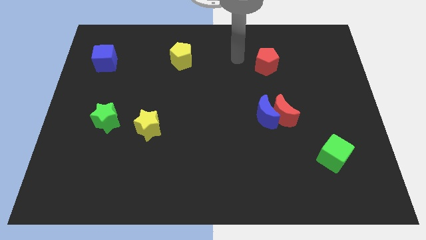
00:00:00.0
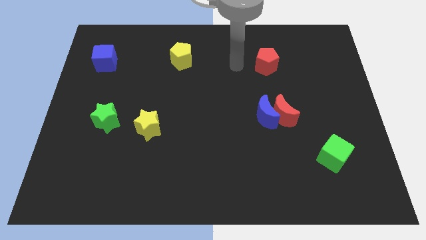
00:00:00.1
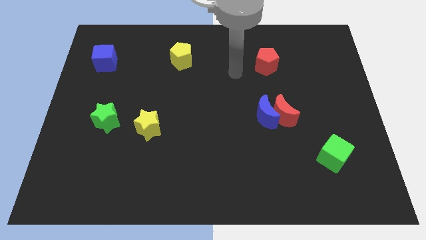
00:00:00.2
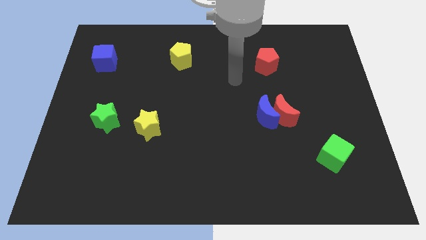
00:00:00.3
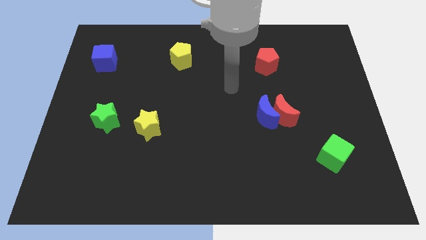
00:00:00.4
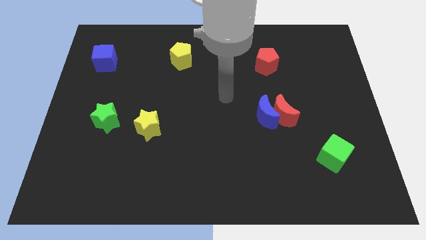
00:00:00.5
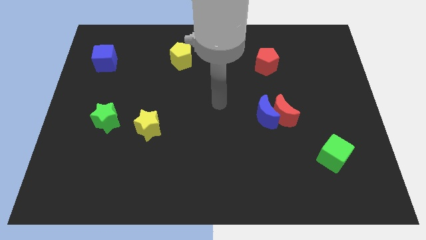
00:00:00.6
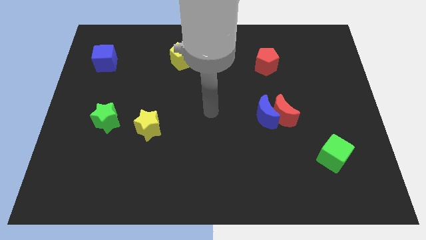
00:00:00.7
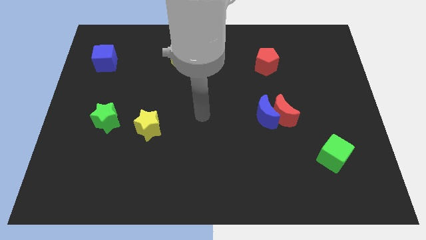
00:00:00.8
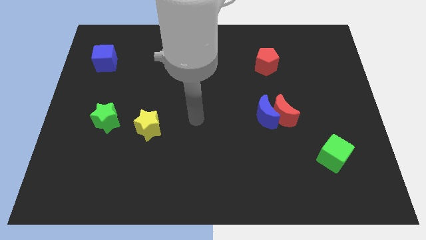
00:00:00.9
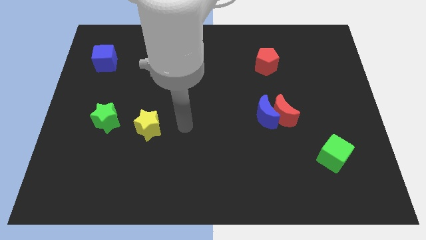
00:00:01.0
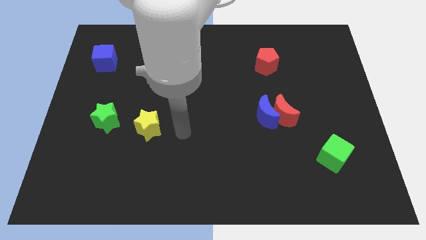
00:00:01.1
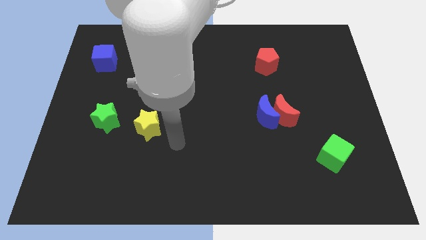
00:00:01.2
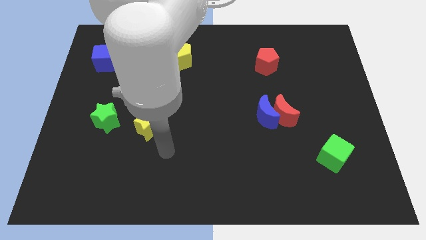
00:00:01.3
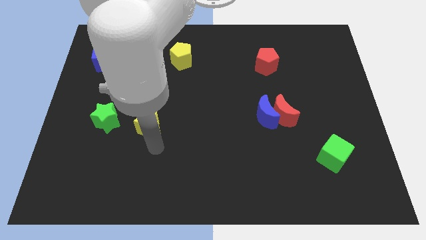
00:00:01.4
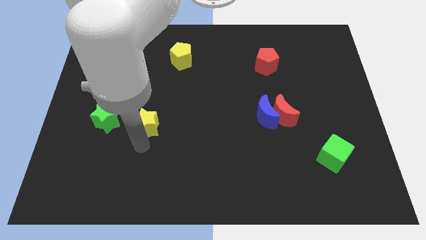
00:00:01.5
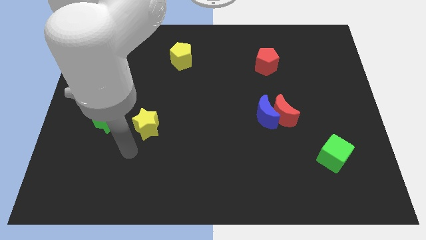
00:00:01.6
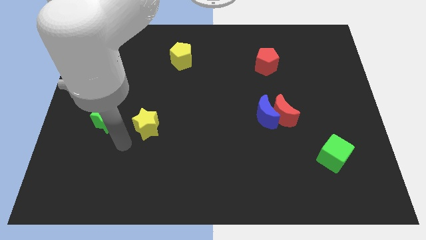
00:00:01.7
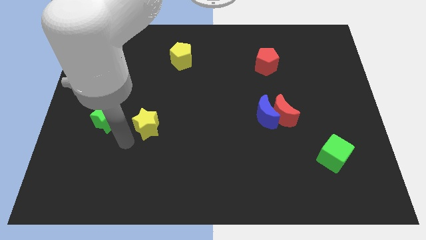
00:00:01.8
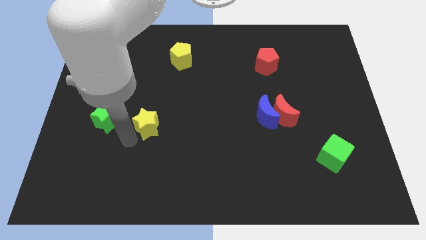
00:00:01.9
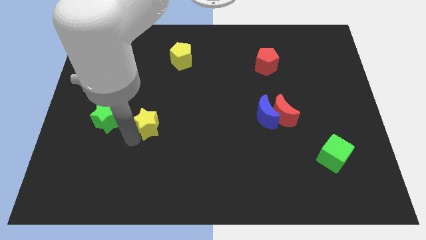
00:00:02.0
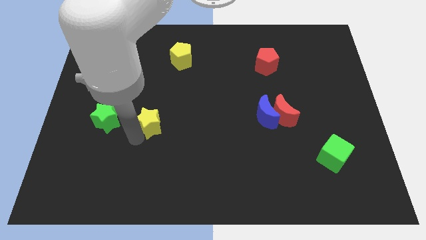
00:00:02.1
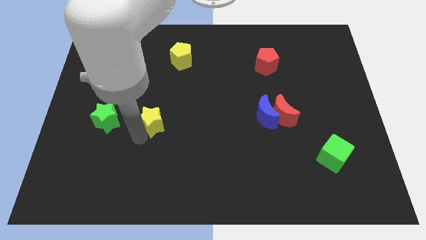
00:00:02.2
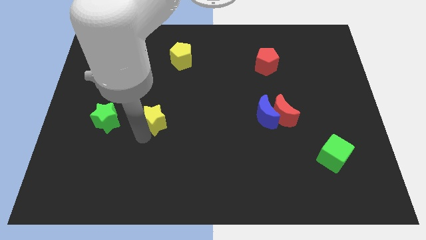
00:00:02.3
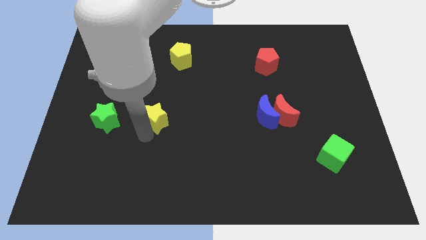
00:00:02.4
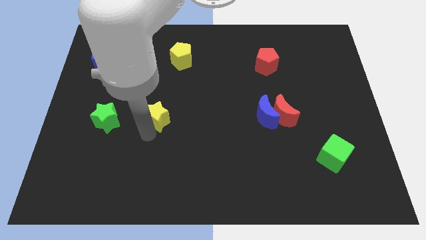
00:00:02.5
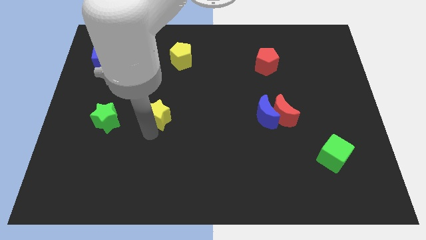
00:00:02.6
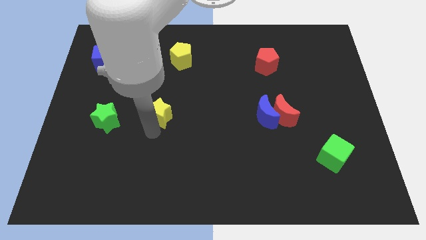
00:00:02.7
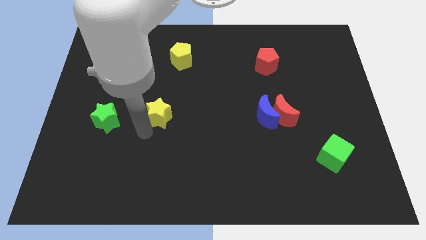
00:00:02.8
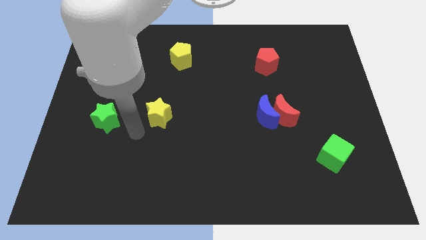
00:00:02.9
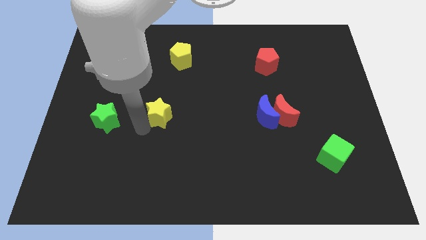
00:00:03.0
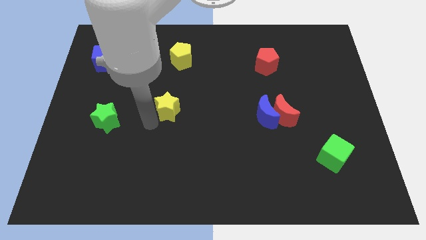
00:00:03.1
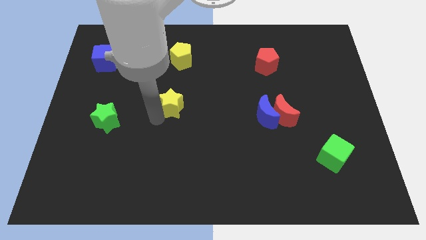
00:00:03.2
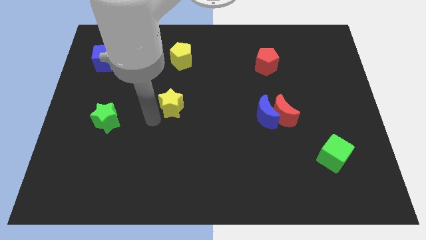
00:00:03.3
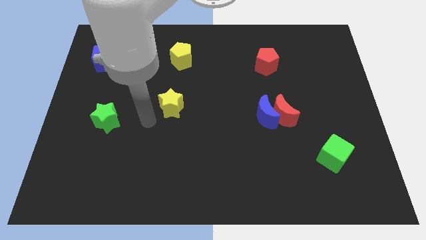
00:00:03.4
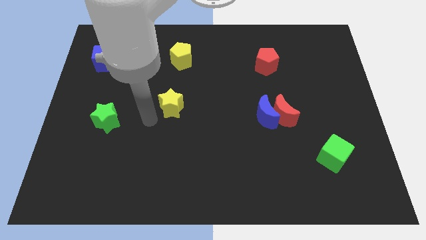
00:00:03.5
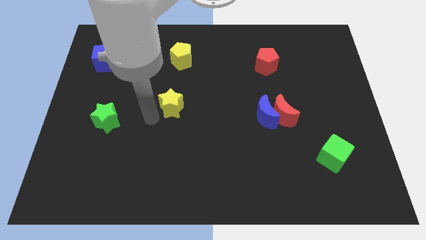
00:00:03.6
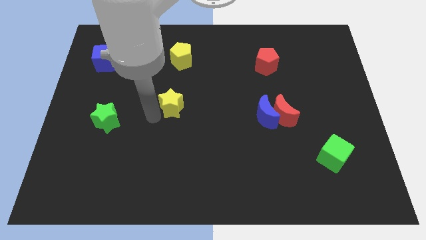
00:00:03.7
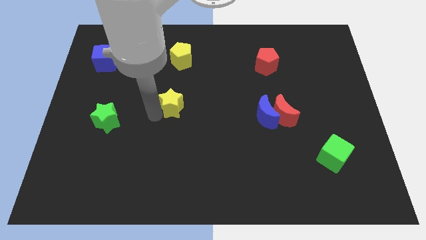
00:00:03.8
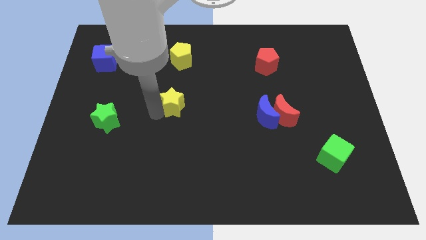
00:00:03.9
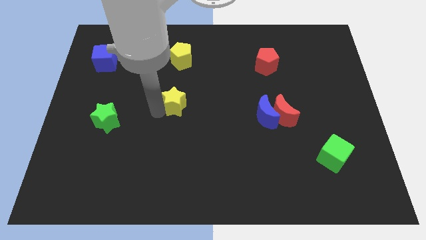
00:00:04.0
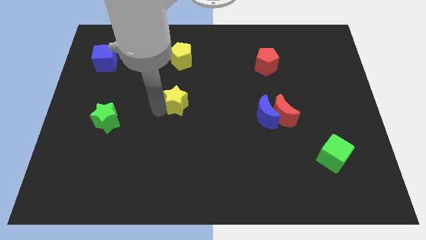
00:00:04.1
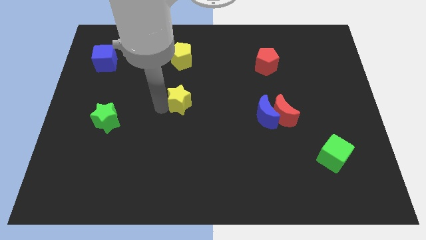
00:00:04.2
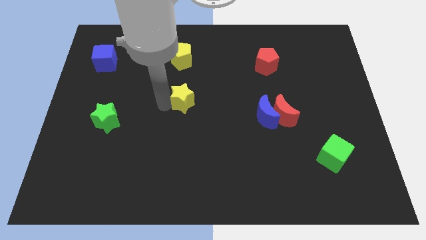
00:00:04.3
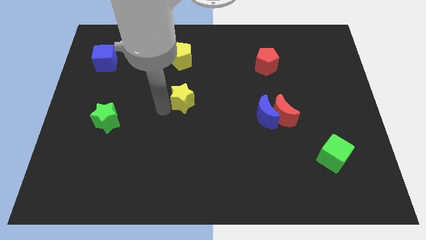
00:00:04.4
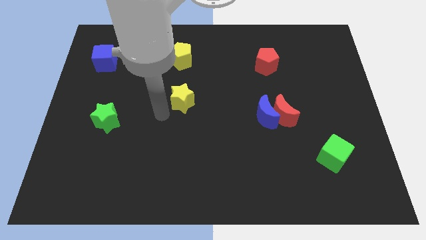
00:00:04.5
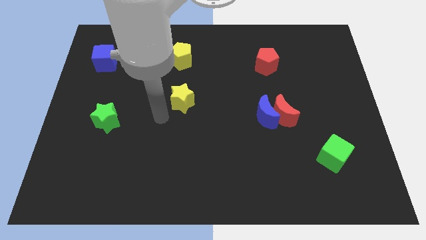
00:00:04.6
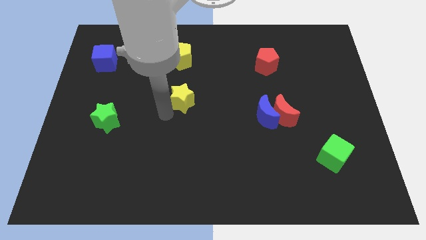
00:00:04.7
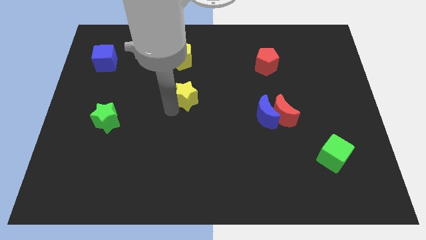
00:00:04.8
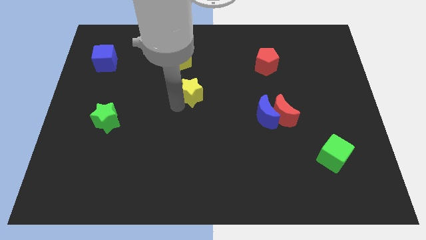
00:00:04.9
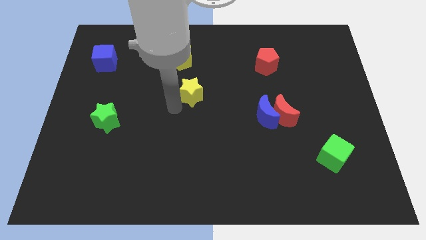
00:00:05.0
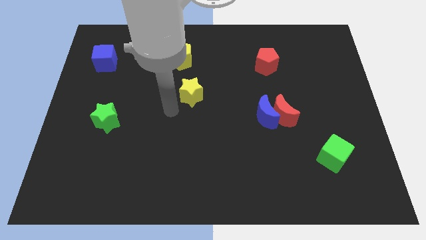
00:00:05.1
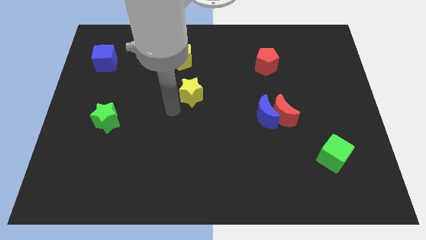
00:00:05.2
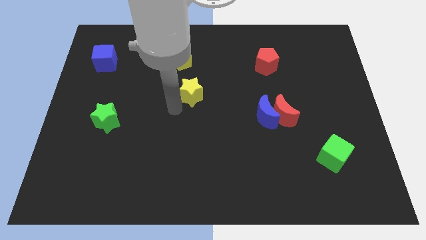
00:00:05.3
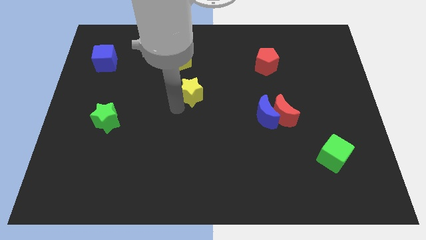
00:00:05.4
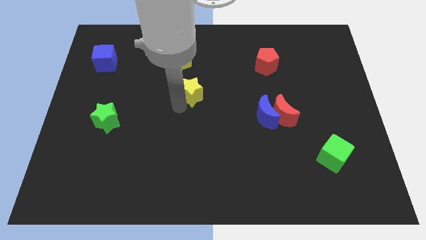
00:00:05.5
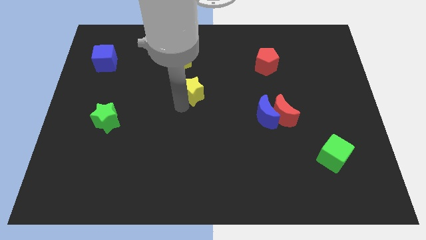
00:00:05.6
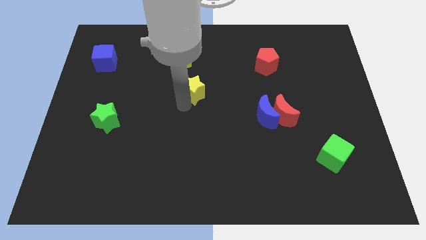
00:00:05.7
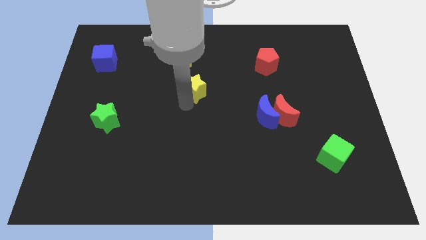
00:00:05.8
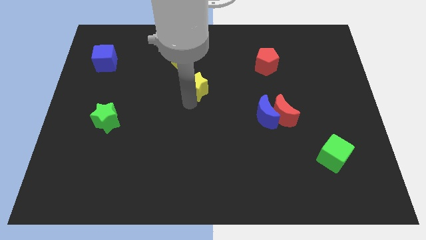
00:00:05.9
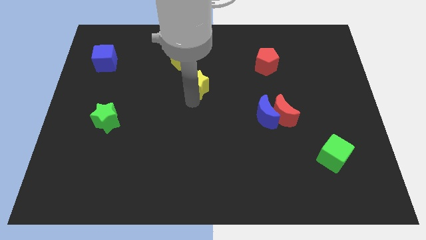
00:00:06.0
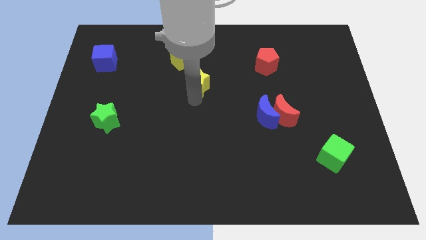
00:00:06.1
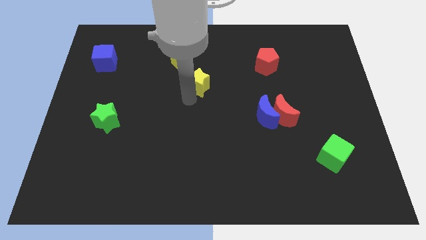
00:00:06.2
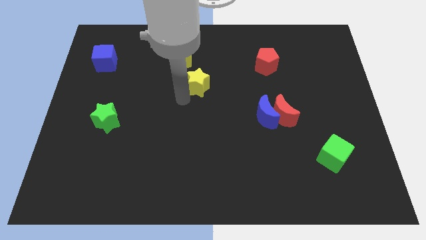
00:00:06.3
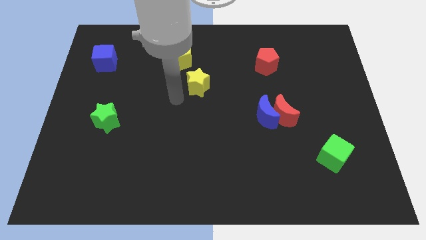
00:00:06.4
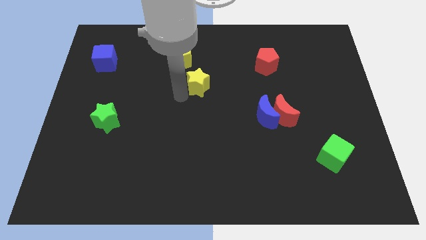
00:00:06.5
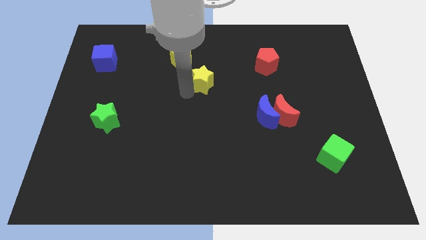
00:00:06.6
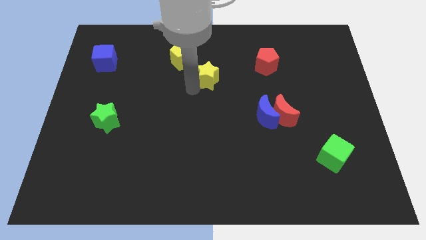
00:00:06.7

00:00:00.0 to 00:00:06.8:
move the yellow star up and then right

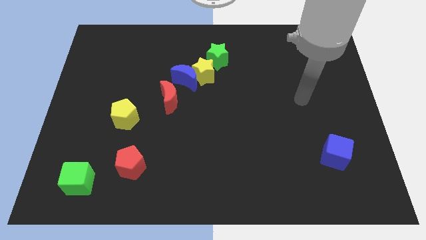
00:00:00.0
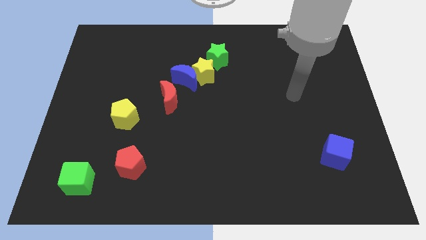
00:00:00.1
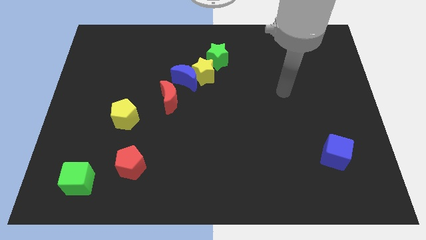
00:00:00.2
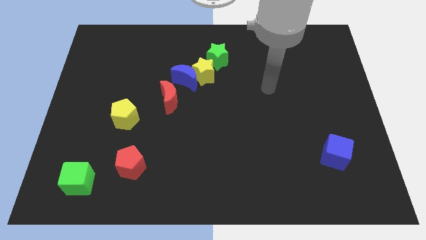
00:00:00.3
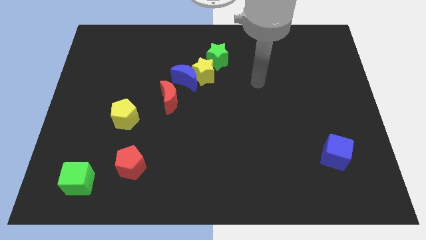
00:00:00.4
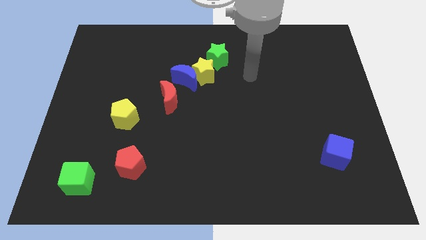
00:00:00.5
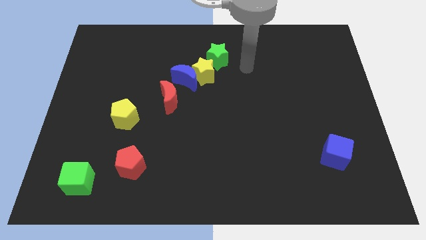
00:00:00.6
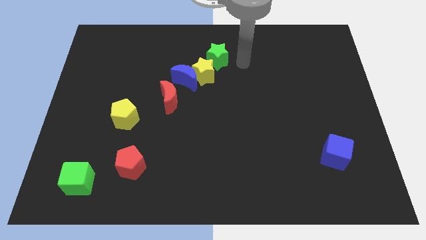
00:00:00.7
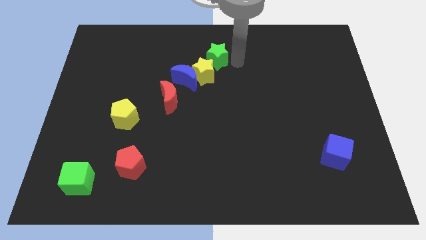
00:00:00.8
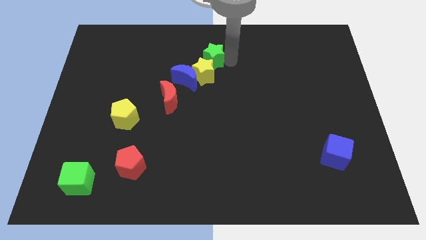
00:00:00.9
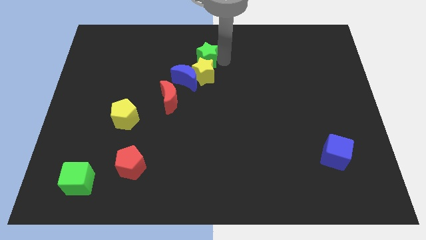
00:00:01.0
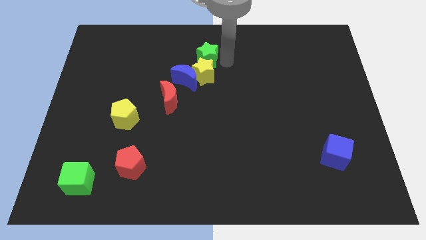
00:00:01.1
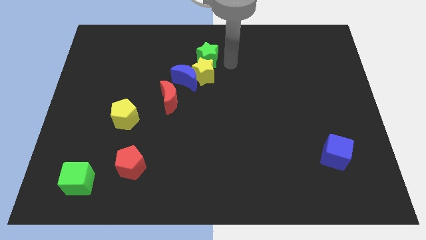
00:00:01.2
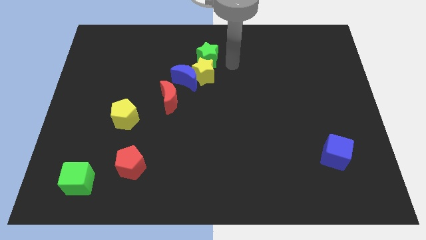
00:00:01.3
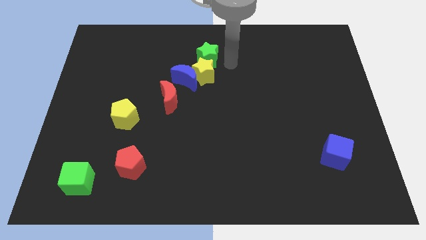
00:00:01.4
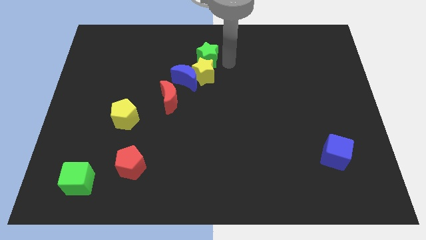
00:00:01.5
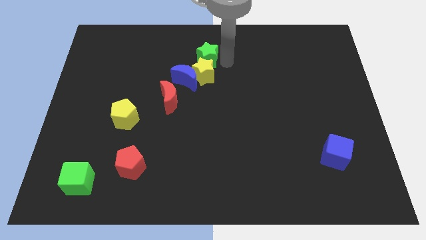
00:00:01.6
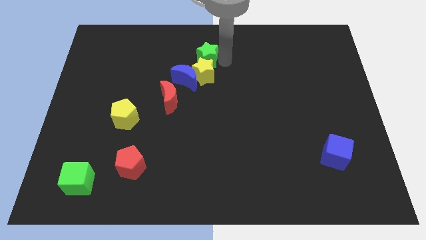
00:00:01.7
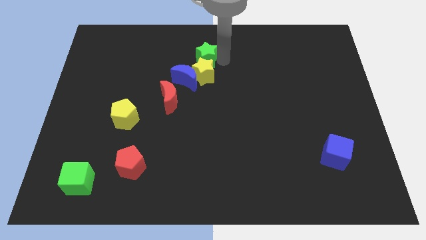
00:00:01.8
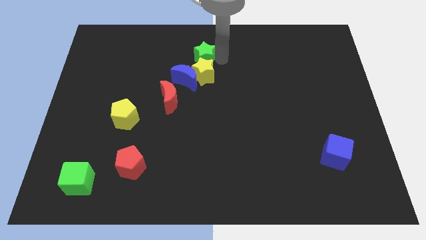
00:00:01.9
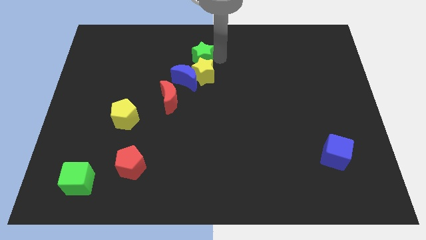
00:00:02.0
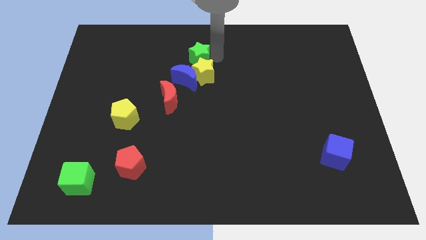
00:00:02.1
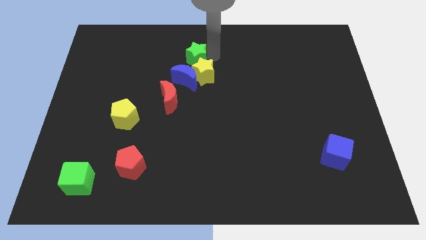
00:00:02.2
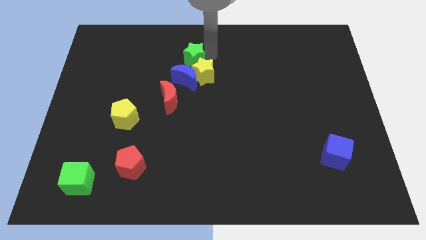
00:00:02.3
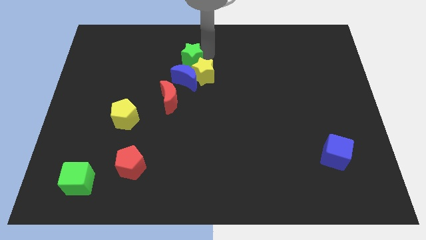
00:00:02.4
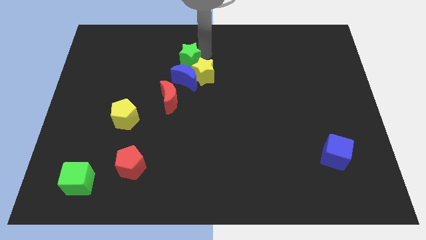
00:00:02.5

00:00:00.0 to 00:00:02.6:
slide the green star a little to the left
